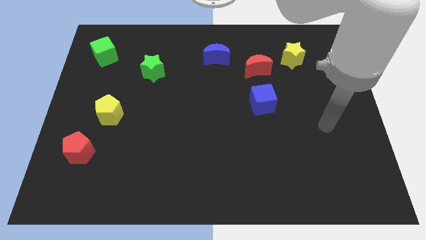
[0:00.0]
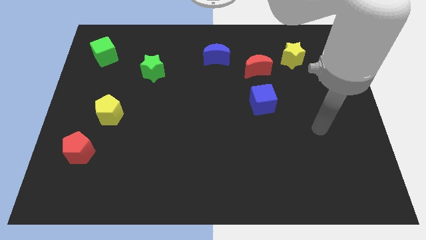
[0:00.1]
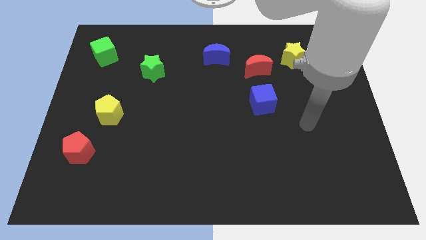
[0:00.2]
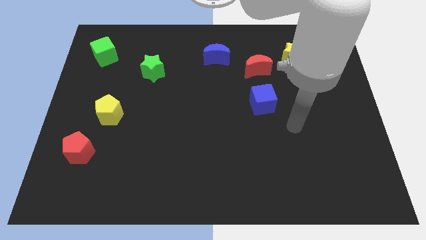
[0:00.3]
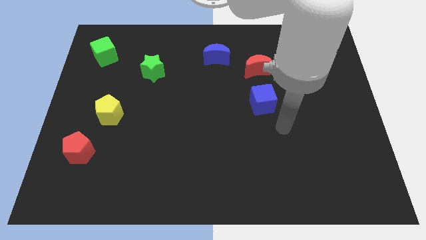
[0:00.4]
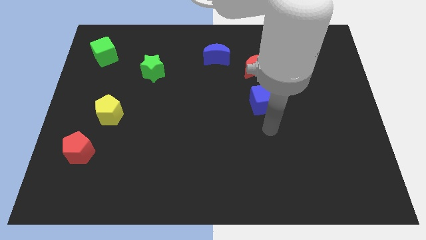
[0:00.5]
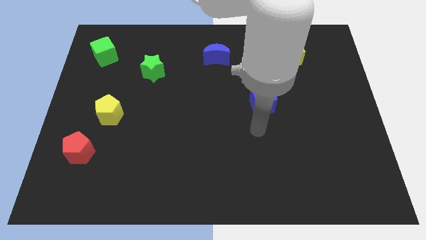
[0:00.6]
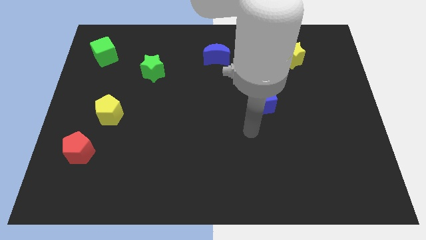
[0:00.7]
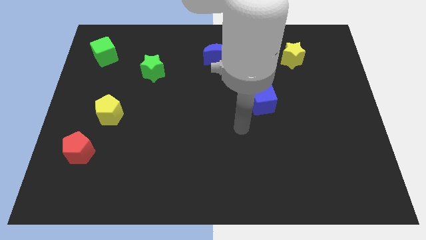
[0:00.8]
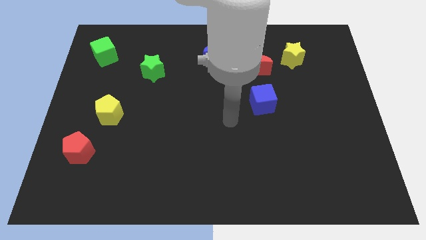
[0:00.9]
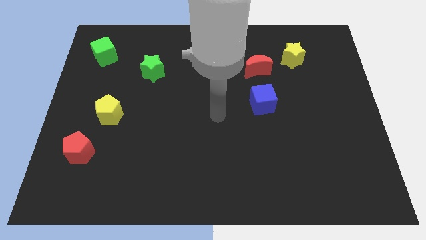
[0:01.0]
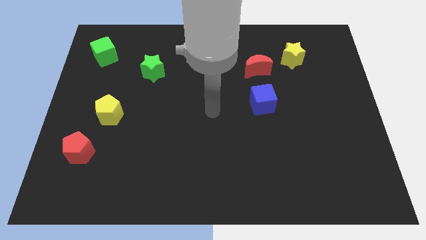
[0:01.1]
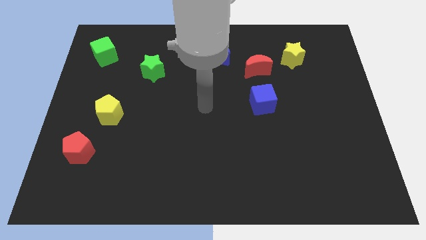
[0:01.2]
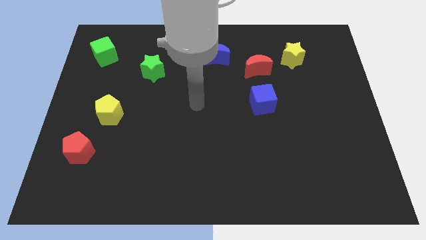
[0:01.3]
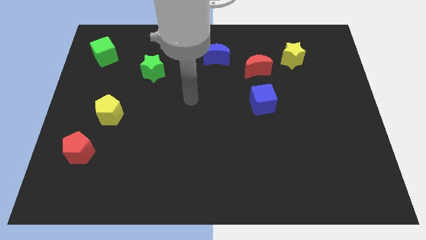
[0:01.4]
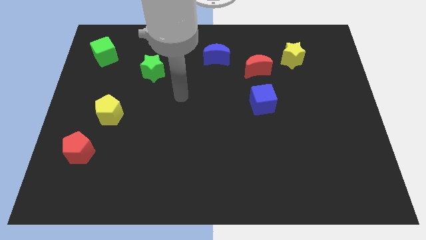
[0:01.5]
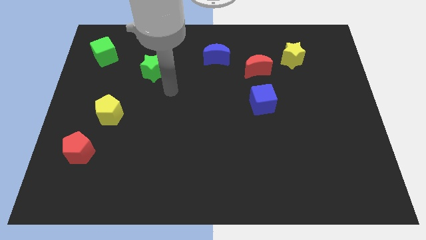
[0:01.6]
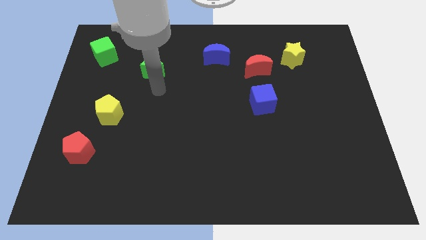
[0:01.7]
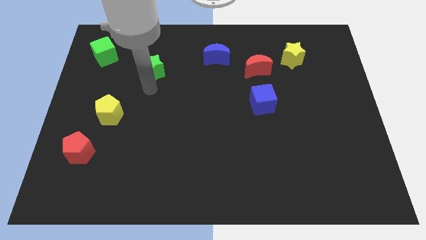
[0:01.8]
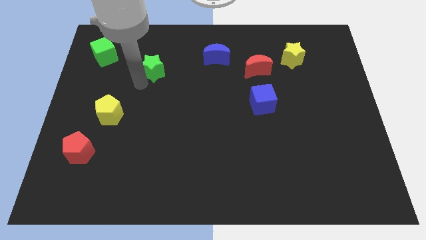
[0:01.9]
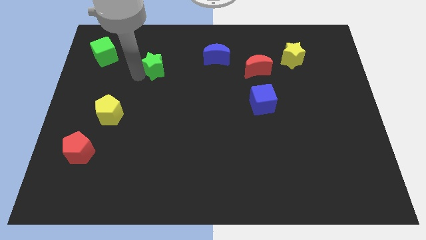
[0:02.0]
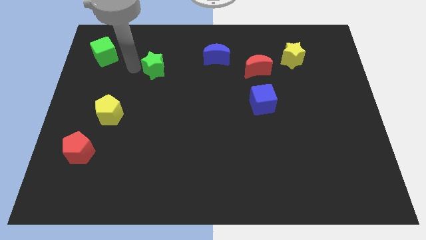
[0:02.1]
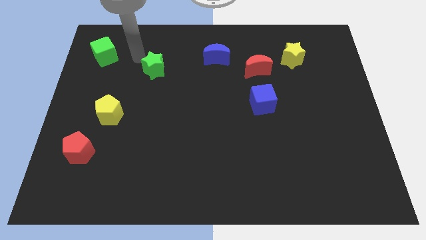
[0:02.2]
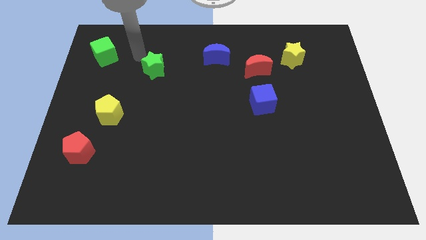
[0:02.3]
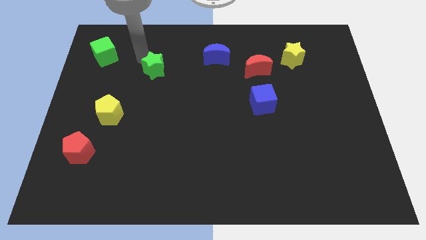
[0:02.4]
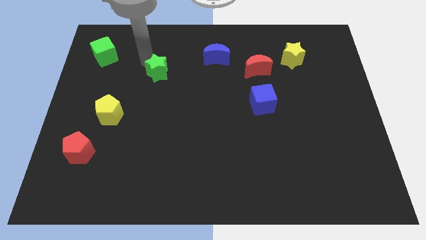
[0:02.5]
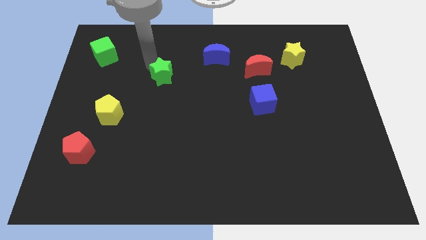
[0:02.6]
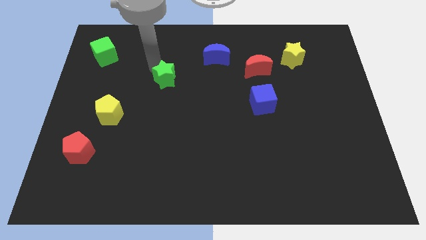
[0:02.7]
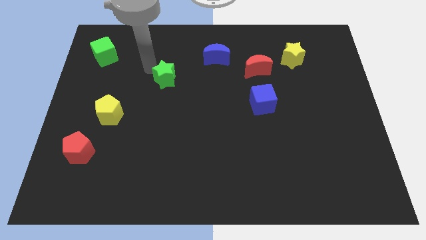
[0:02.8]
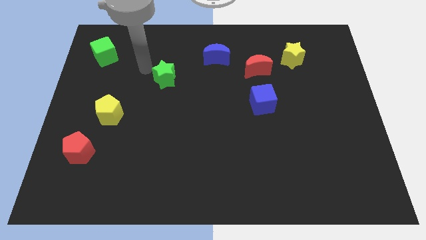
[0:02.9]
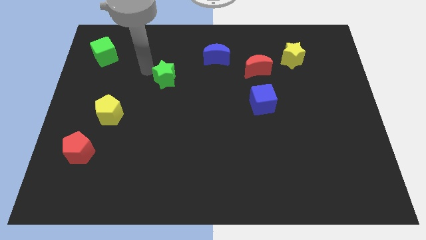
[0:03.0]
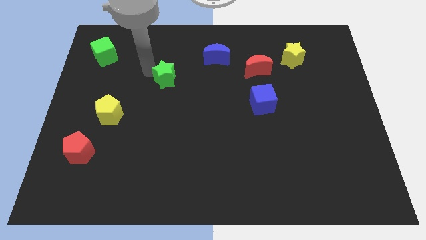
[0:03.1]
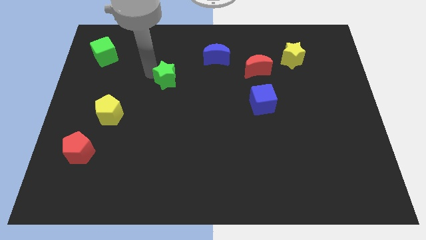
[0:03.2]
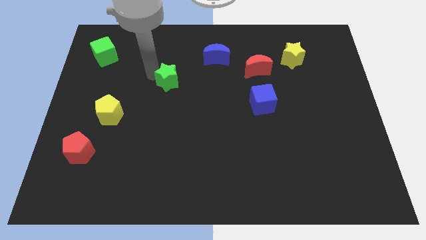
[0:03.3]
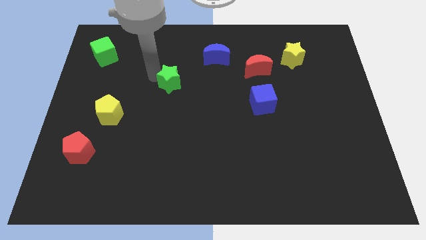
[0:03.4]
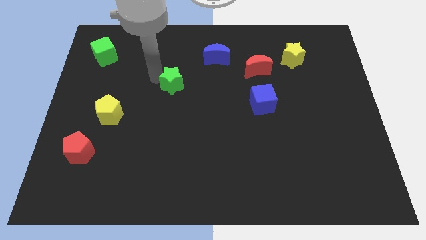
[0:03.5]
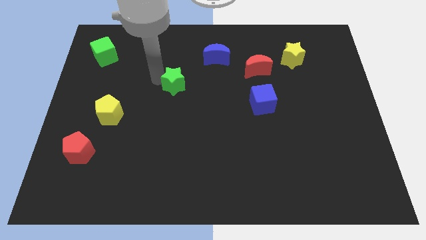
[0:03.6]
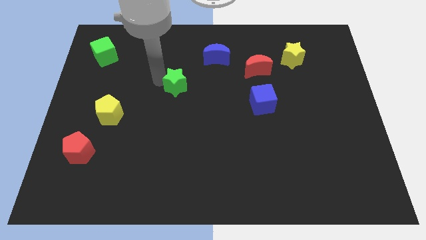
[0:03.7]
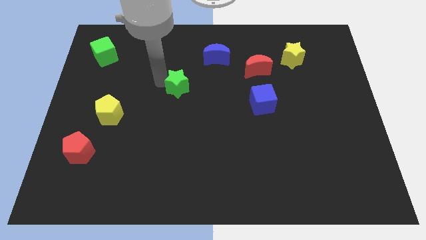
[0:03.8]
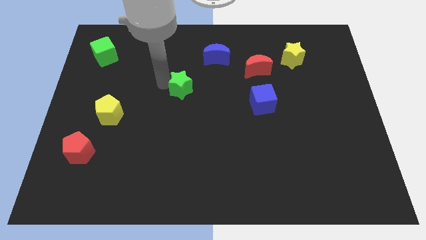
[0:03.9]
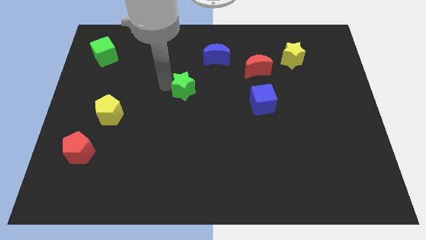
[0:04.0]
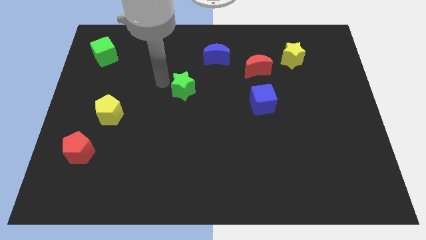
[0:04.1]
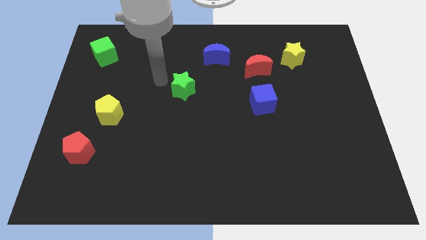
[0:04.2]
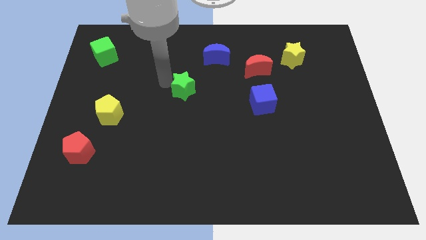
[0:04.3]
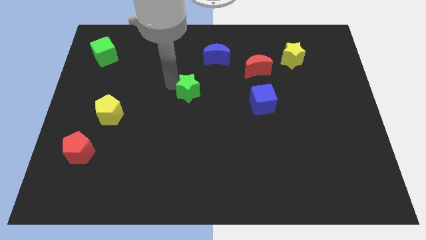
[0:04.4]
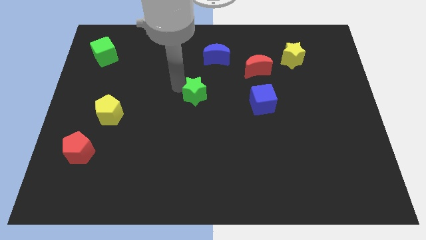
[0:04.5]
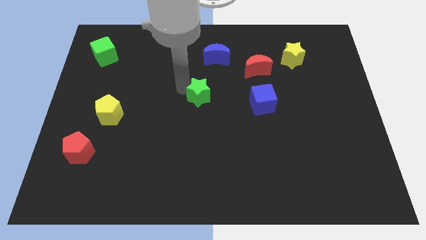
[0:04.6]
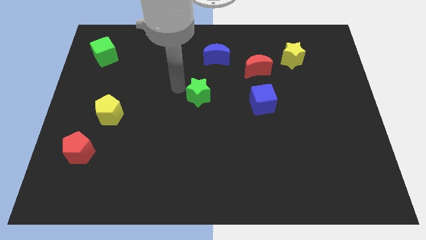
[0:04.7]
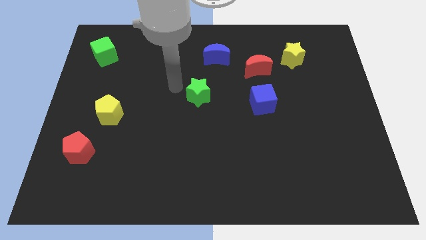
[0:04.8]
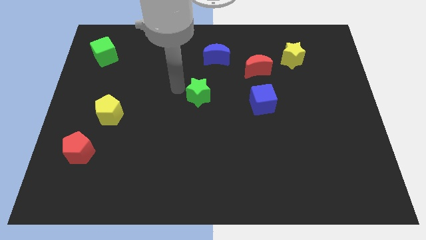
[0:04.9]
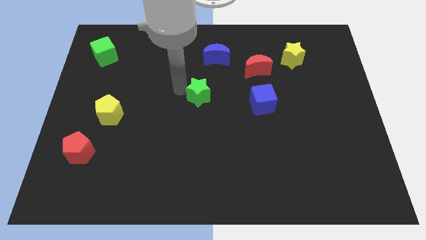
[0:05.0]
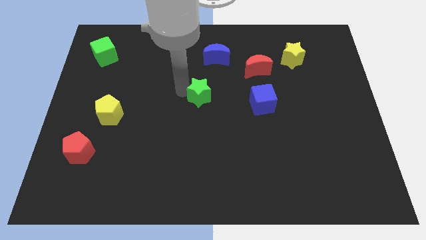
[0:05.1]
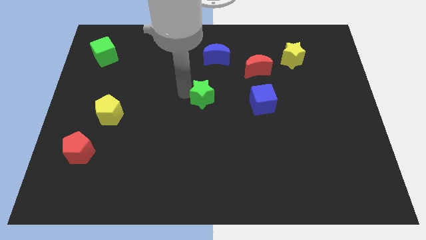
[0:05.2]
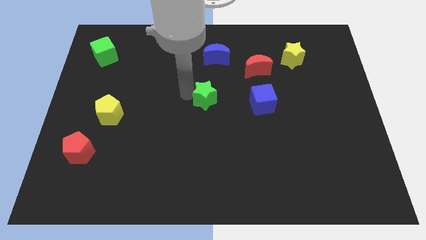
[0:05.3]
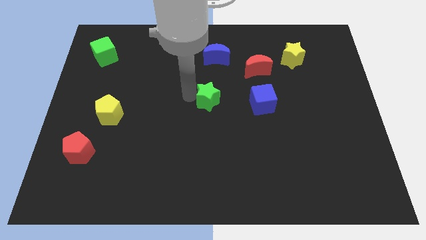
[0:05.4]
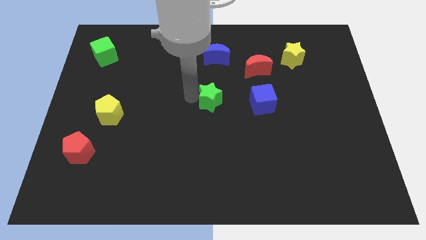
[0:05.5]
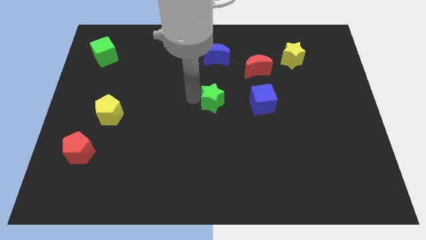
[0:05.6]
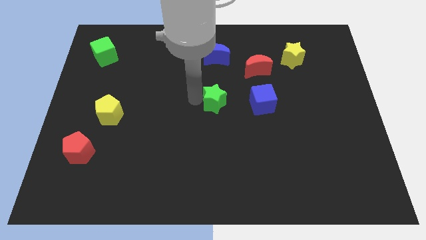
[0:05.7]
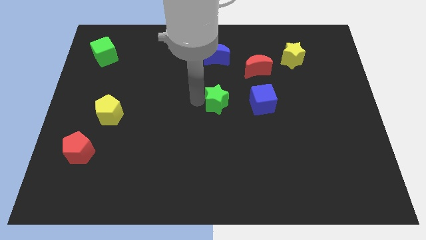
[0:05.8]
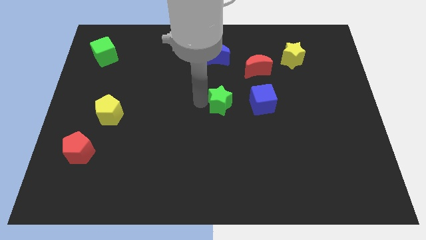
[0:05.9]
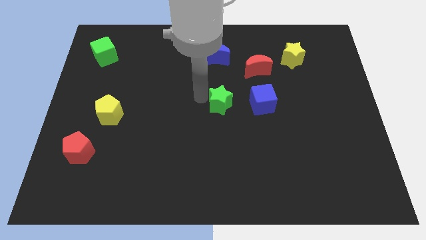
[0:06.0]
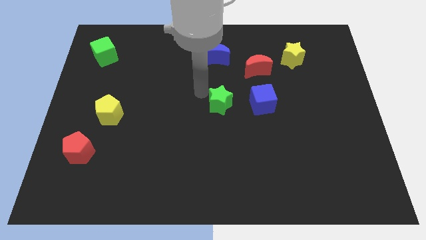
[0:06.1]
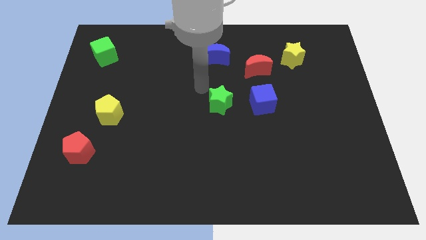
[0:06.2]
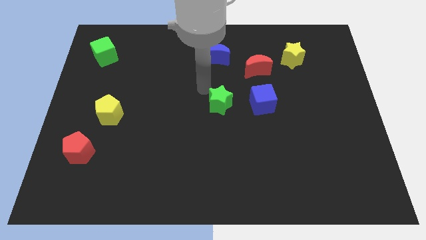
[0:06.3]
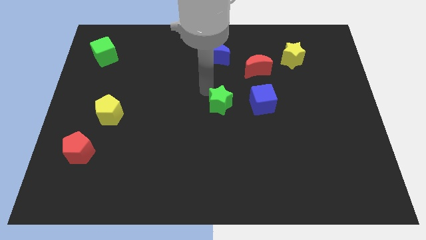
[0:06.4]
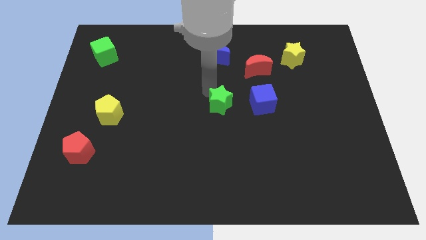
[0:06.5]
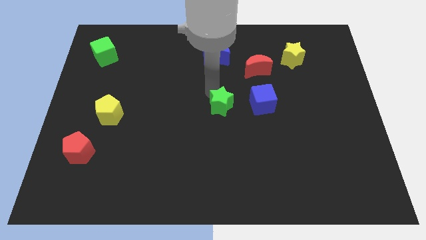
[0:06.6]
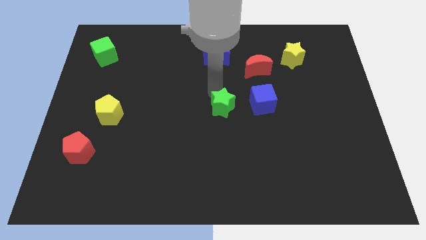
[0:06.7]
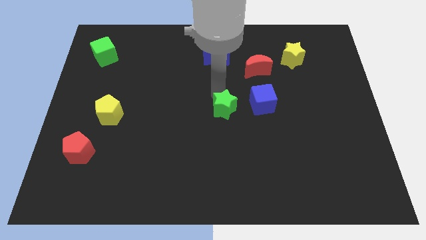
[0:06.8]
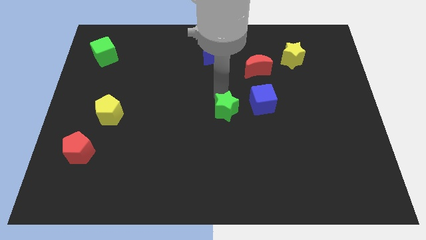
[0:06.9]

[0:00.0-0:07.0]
put the green star to the bottom left of the blue cube
